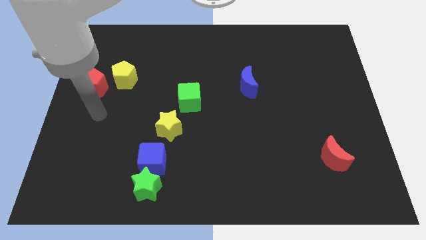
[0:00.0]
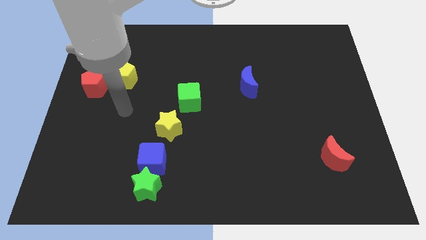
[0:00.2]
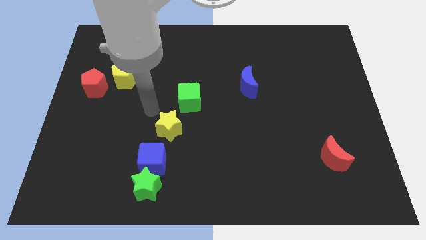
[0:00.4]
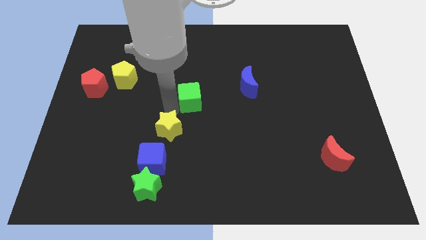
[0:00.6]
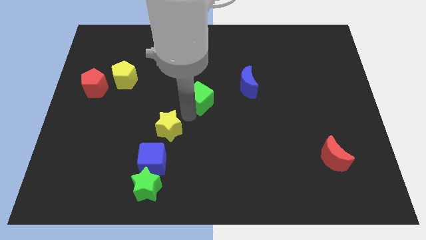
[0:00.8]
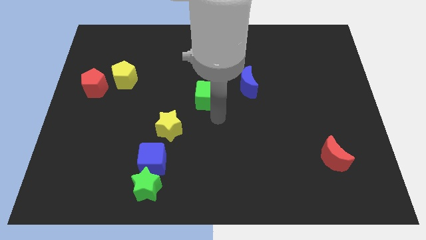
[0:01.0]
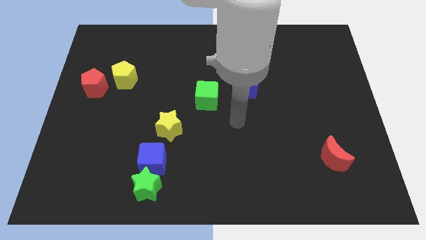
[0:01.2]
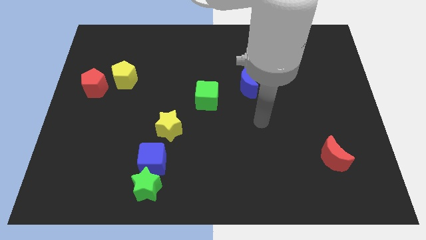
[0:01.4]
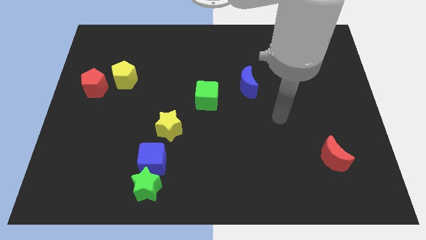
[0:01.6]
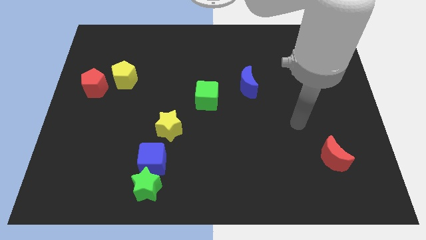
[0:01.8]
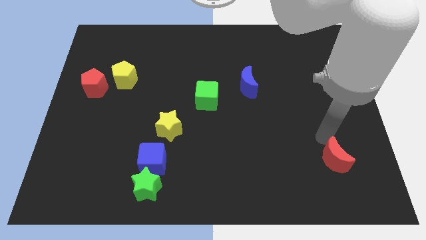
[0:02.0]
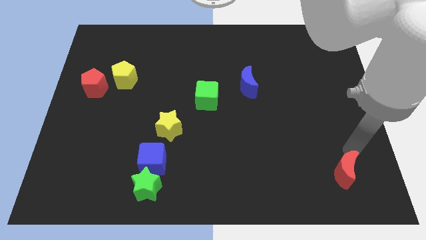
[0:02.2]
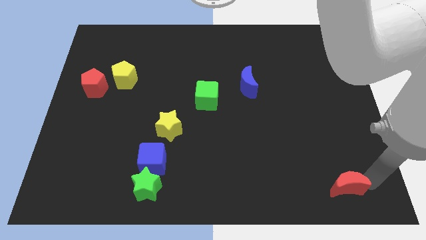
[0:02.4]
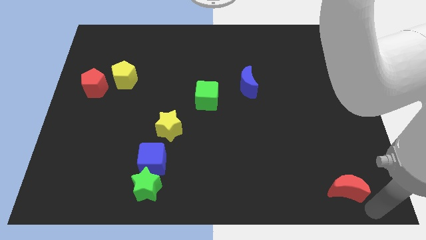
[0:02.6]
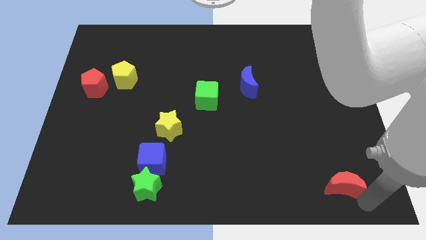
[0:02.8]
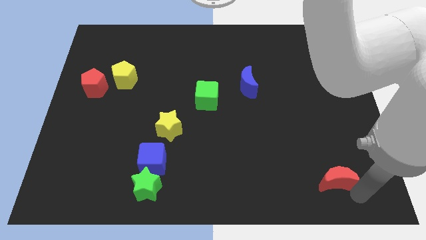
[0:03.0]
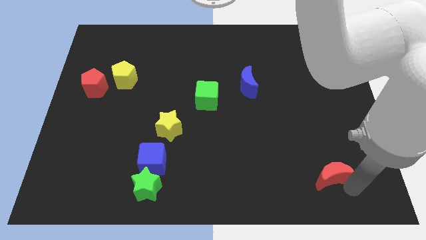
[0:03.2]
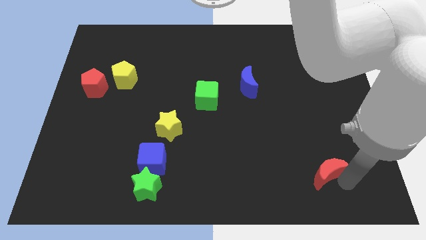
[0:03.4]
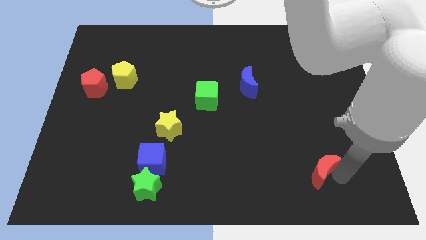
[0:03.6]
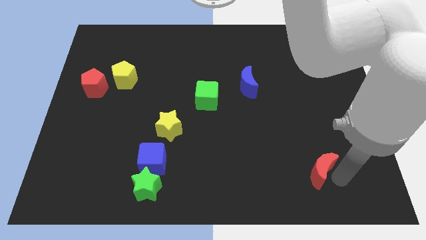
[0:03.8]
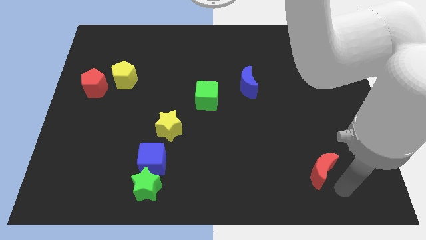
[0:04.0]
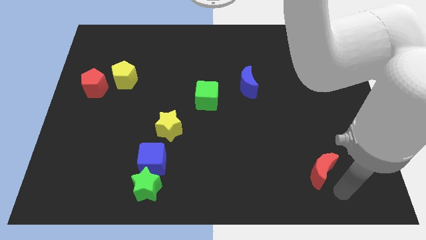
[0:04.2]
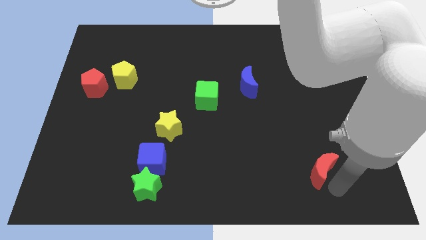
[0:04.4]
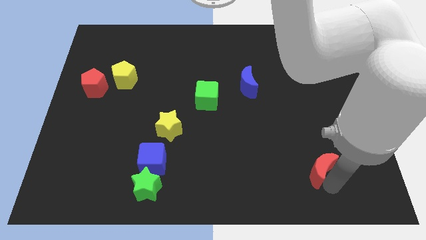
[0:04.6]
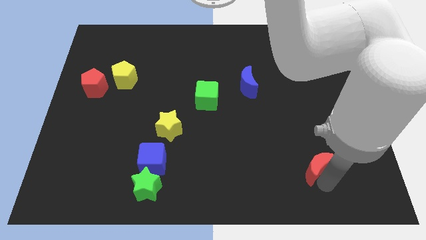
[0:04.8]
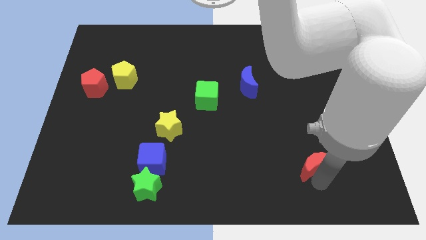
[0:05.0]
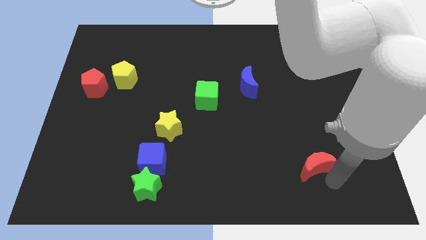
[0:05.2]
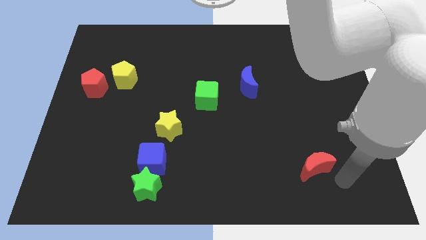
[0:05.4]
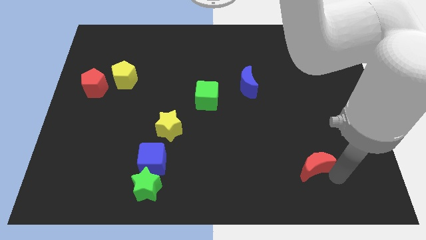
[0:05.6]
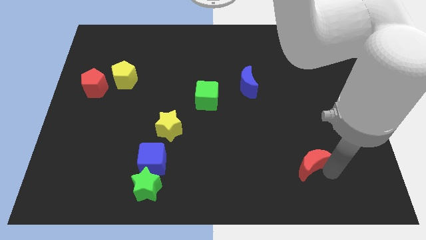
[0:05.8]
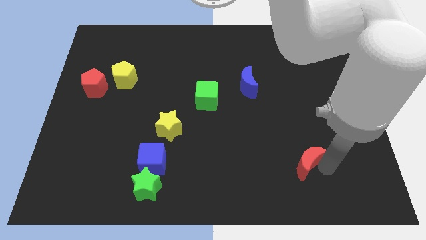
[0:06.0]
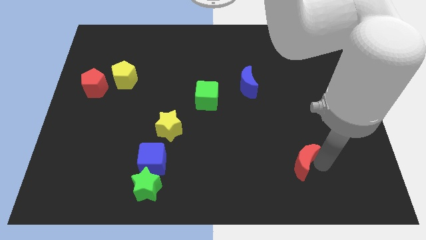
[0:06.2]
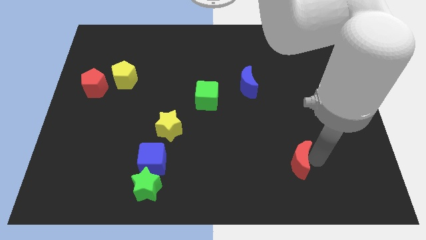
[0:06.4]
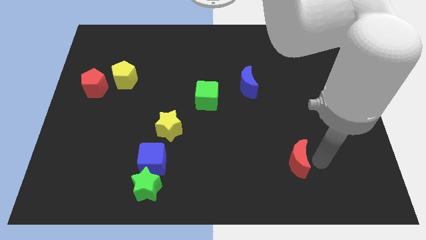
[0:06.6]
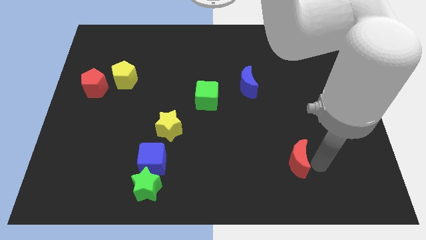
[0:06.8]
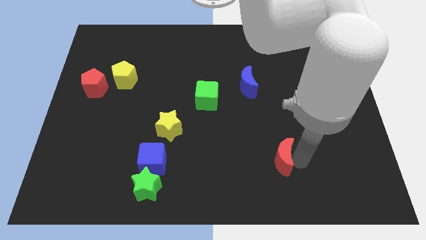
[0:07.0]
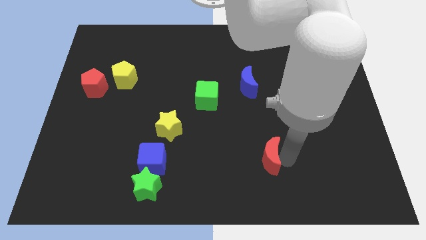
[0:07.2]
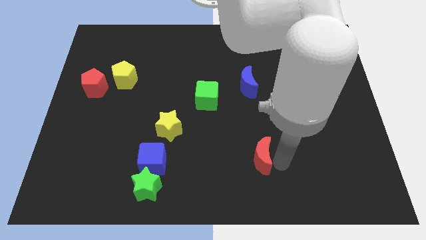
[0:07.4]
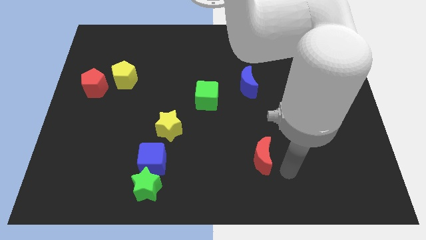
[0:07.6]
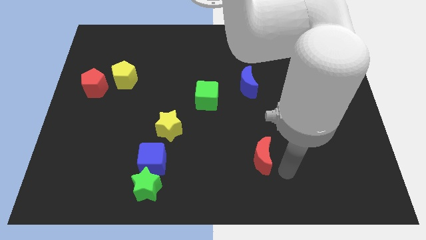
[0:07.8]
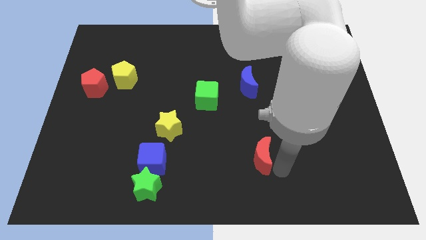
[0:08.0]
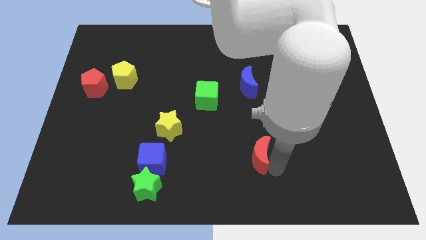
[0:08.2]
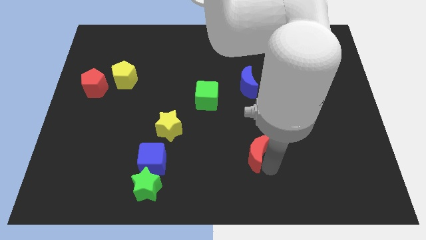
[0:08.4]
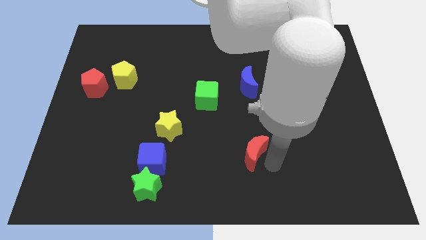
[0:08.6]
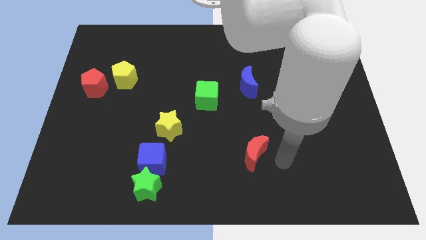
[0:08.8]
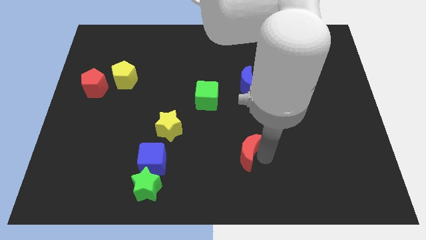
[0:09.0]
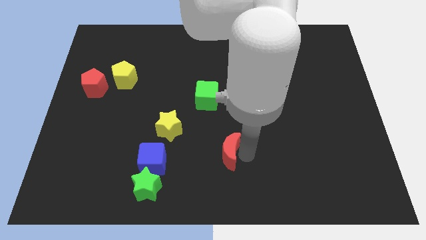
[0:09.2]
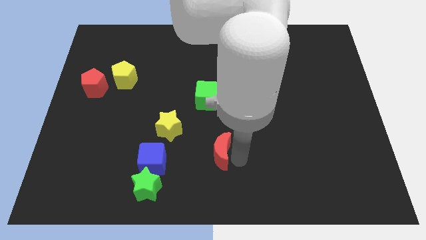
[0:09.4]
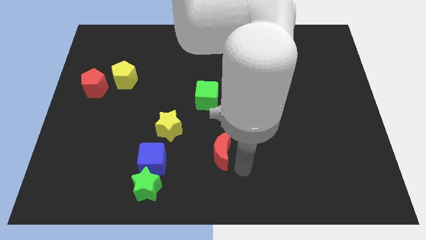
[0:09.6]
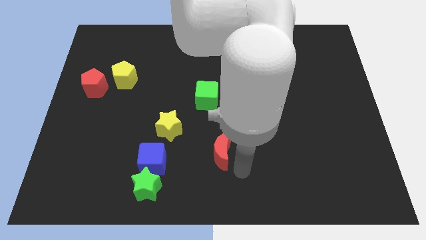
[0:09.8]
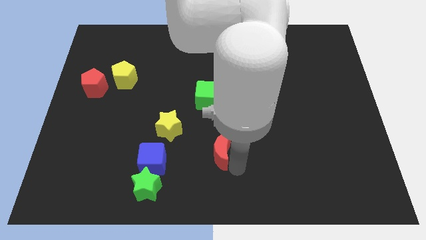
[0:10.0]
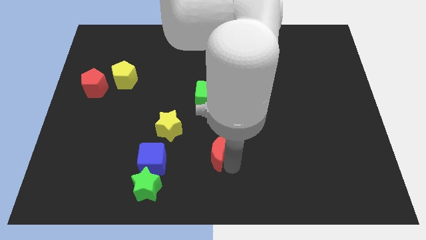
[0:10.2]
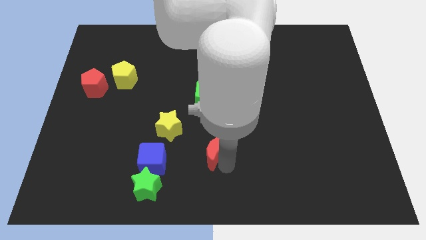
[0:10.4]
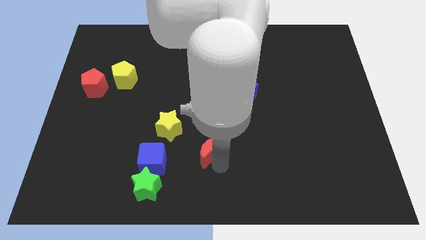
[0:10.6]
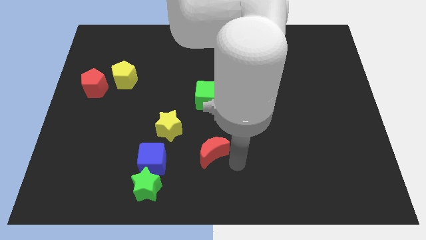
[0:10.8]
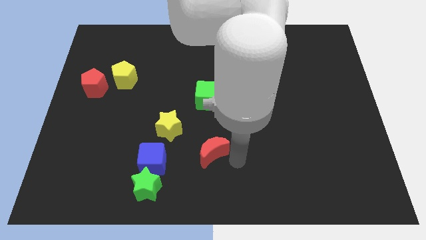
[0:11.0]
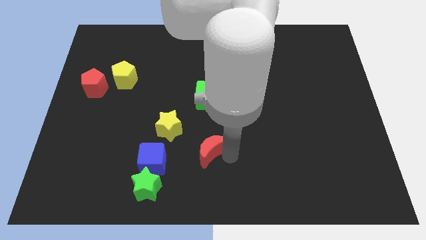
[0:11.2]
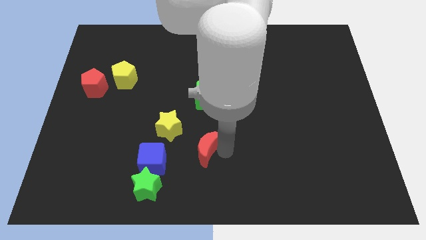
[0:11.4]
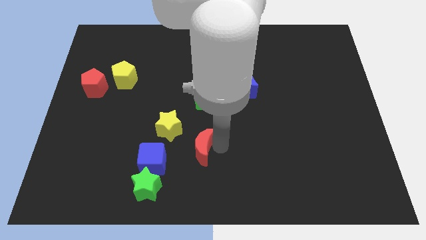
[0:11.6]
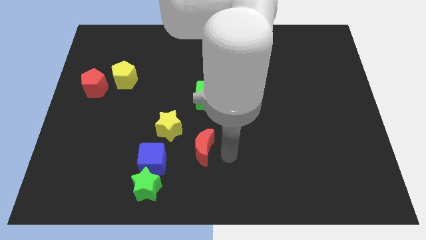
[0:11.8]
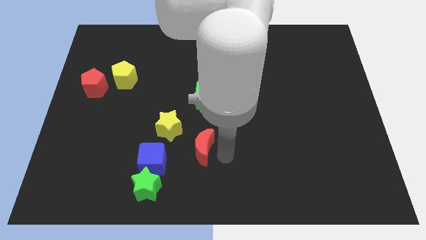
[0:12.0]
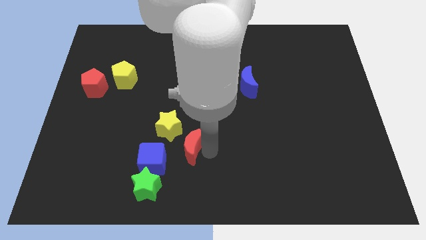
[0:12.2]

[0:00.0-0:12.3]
push the red moon to the top right side of the blue cube

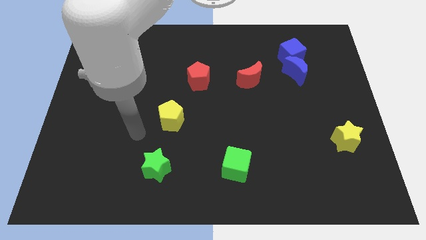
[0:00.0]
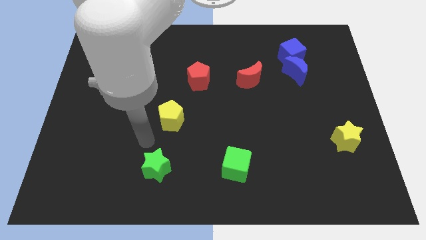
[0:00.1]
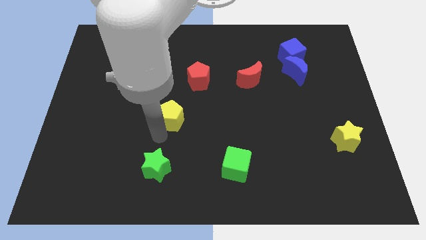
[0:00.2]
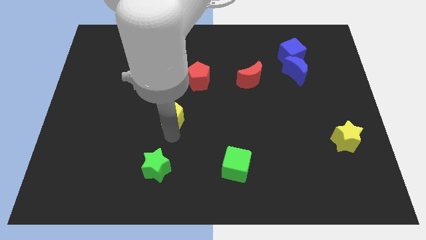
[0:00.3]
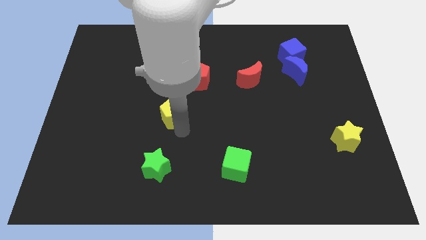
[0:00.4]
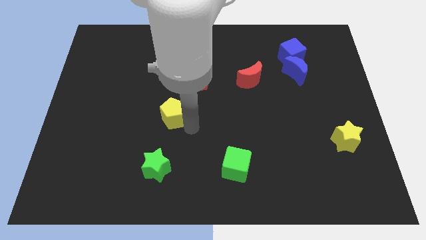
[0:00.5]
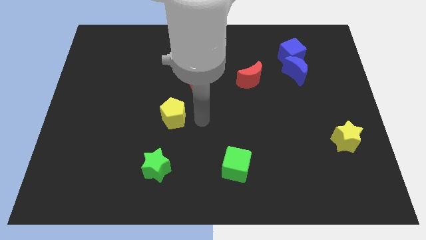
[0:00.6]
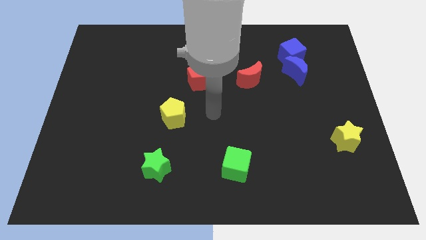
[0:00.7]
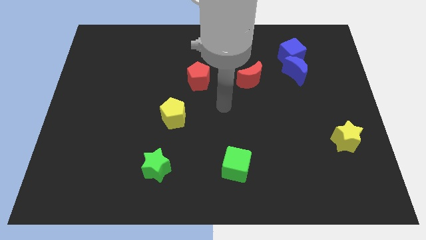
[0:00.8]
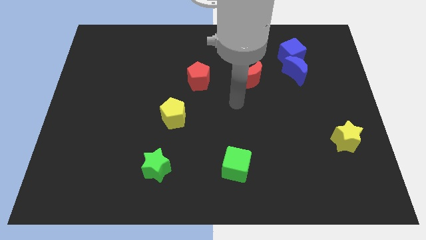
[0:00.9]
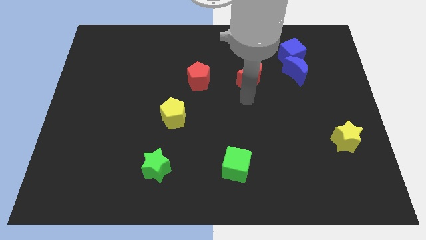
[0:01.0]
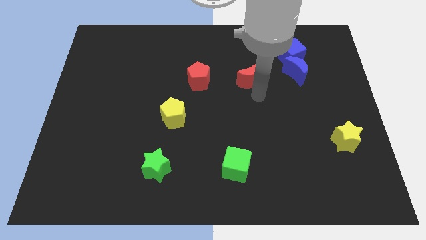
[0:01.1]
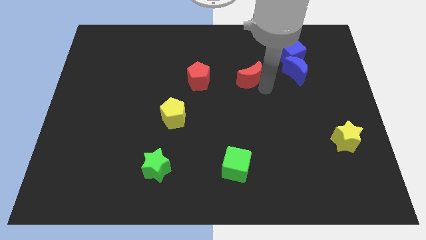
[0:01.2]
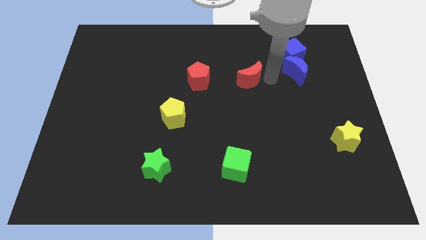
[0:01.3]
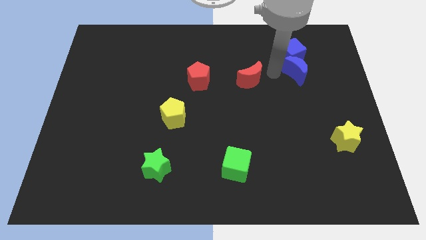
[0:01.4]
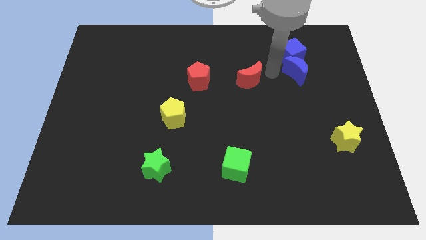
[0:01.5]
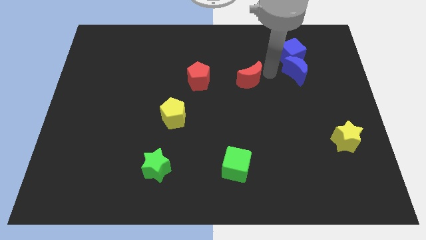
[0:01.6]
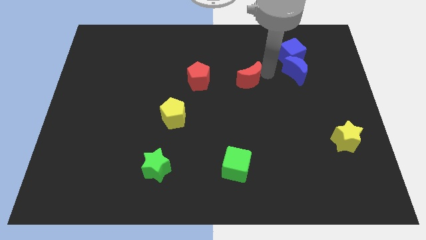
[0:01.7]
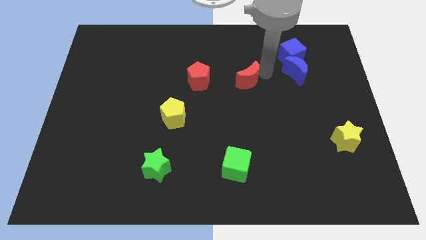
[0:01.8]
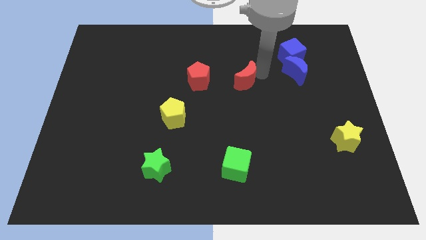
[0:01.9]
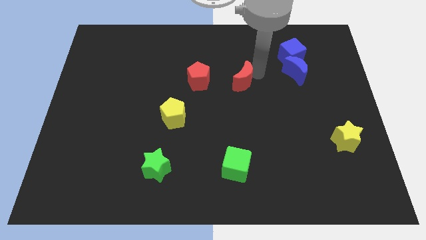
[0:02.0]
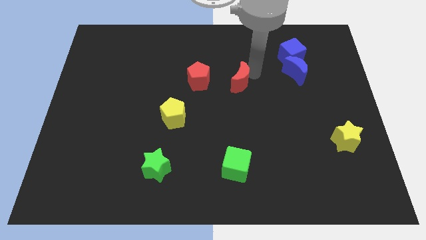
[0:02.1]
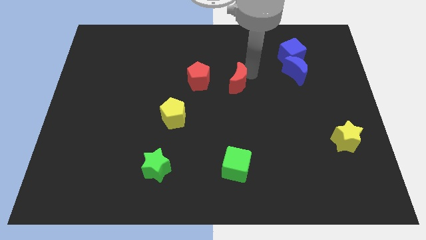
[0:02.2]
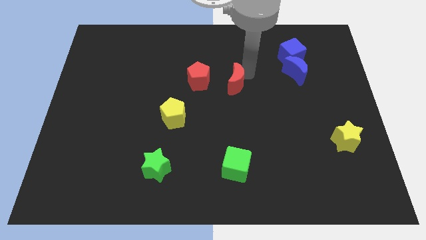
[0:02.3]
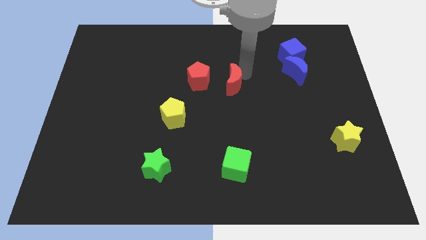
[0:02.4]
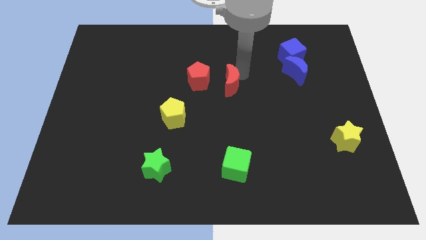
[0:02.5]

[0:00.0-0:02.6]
put the red moon to the bottom right side of the red pentagon
